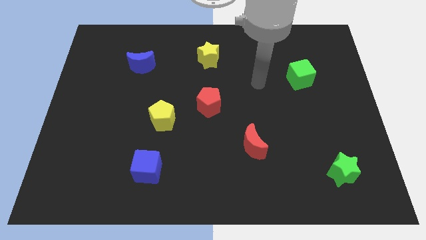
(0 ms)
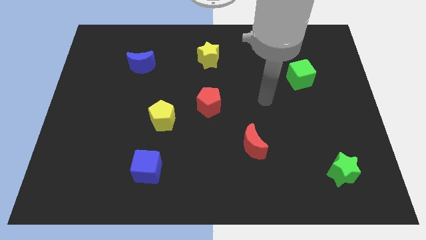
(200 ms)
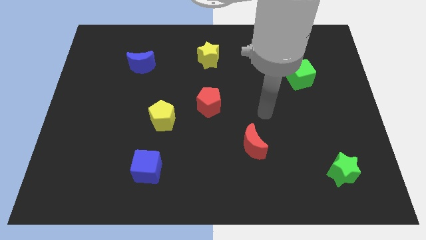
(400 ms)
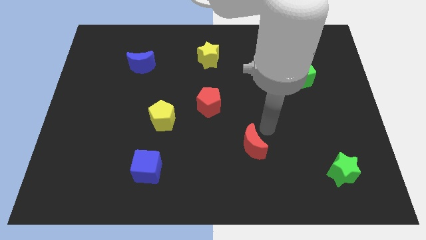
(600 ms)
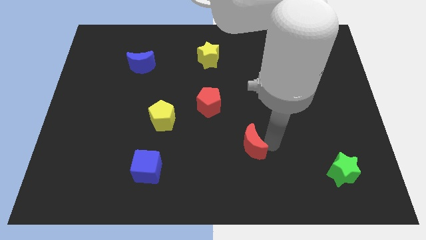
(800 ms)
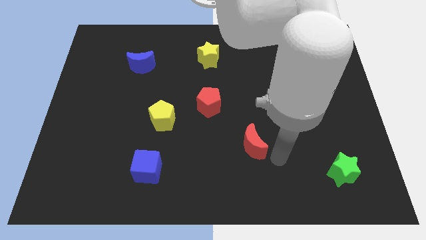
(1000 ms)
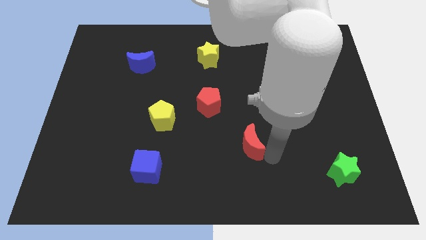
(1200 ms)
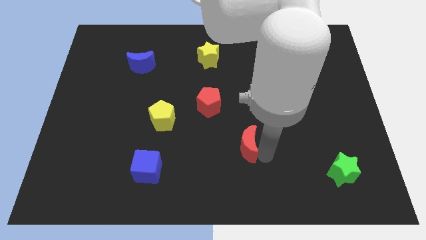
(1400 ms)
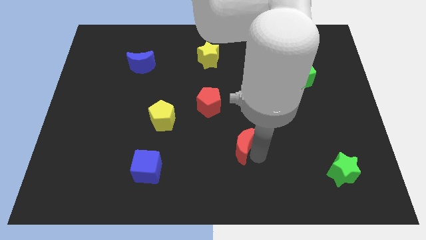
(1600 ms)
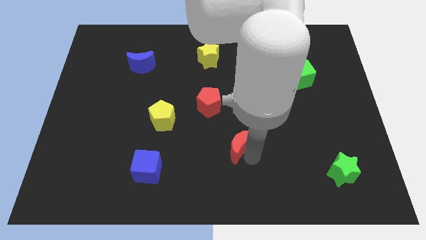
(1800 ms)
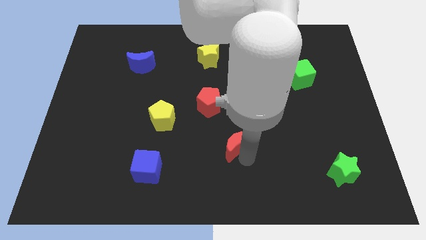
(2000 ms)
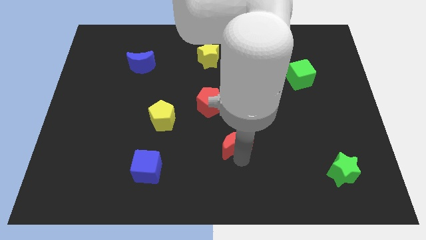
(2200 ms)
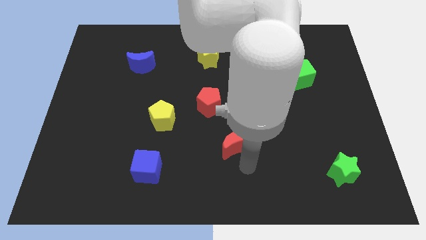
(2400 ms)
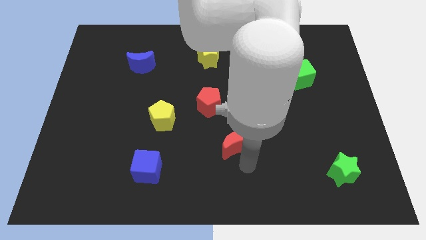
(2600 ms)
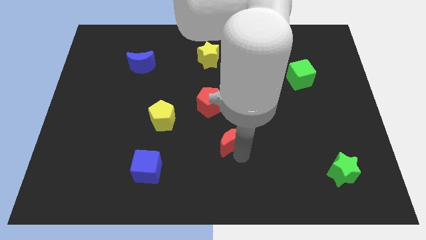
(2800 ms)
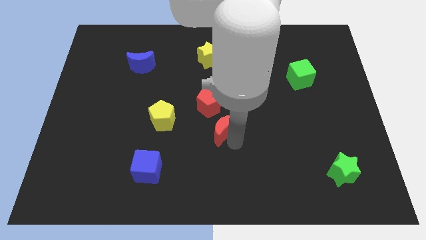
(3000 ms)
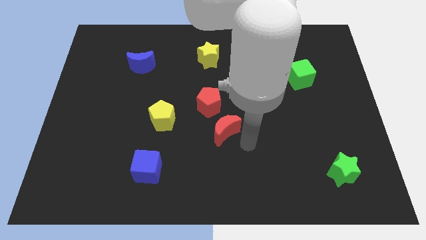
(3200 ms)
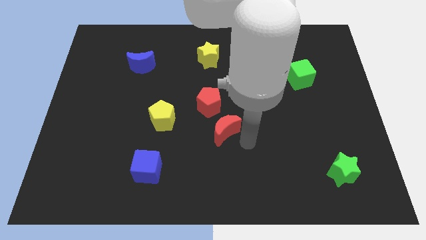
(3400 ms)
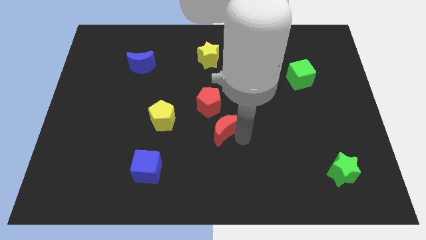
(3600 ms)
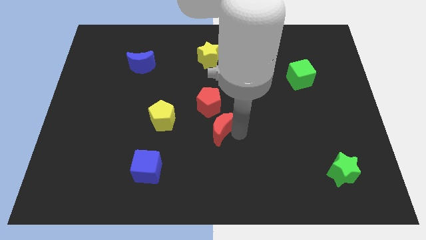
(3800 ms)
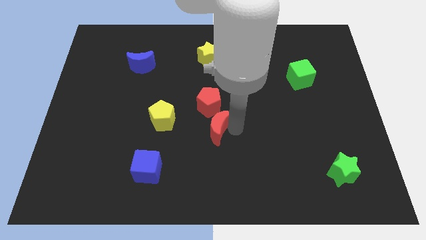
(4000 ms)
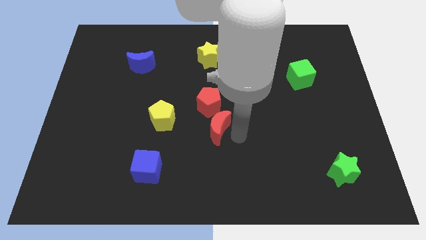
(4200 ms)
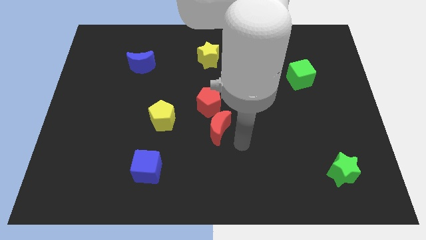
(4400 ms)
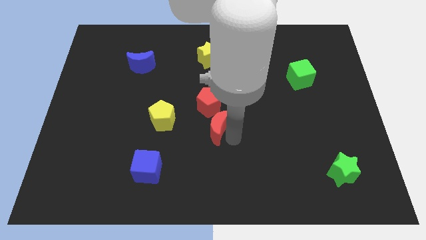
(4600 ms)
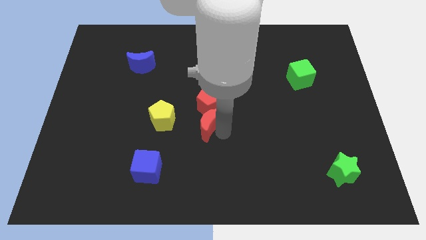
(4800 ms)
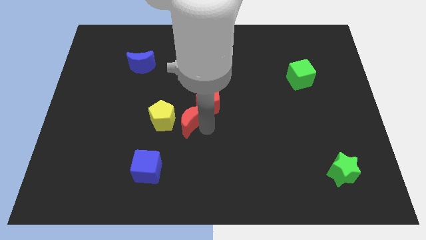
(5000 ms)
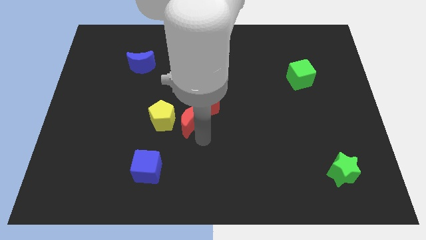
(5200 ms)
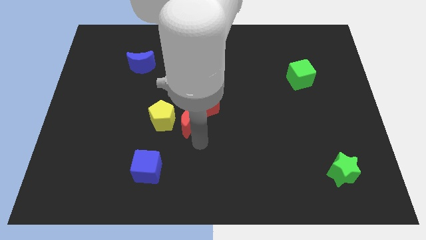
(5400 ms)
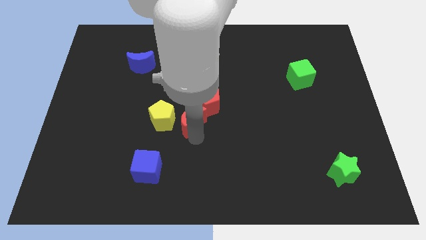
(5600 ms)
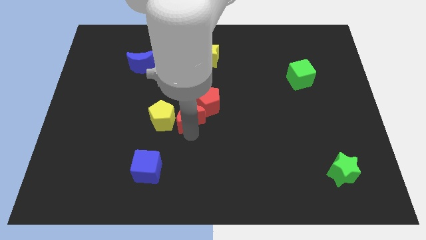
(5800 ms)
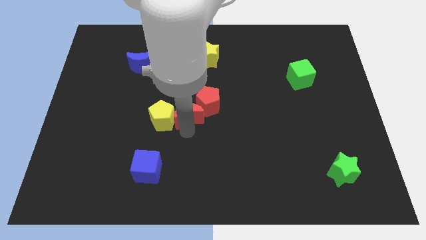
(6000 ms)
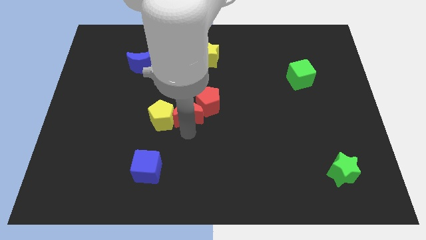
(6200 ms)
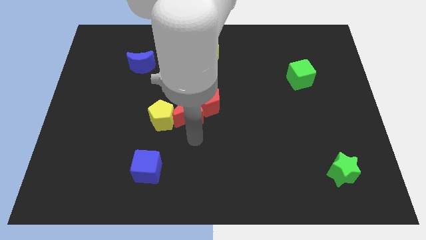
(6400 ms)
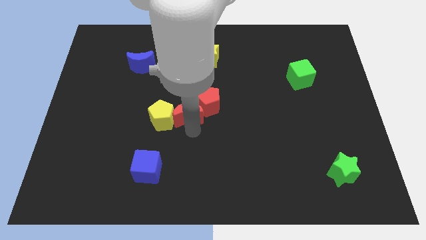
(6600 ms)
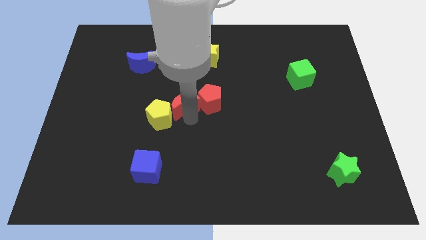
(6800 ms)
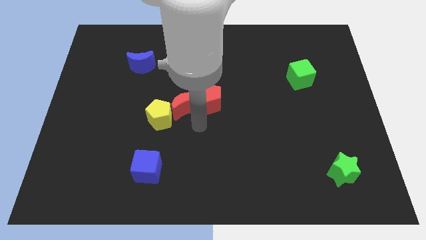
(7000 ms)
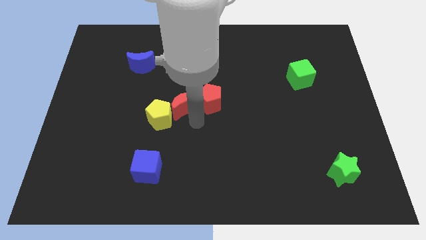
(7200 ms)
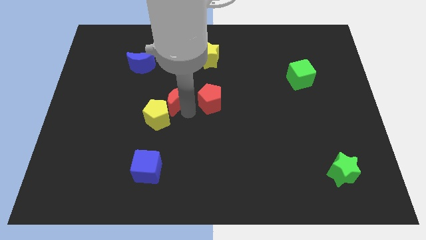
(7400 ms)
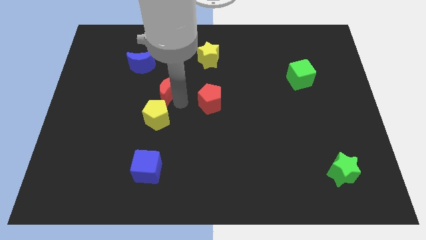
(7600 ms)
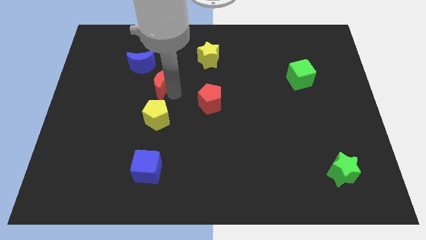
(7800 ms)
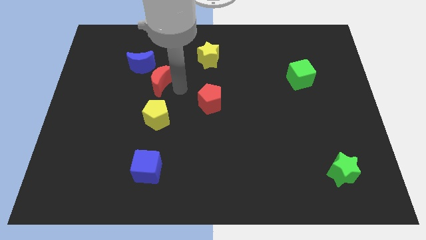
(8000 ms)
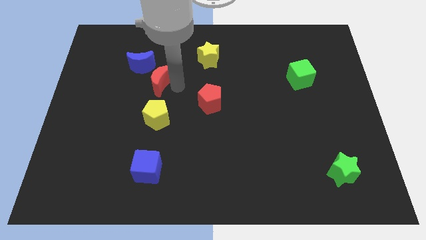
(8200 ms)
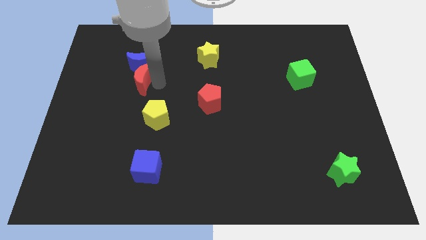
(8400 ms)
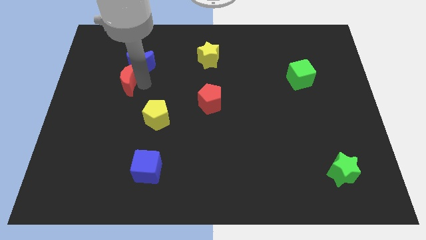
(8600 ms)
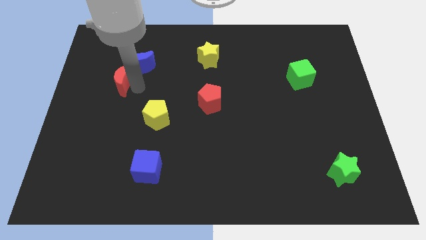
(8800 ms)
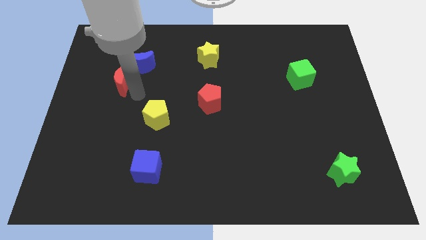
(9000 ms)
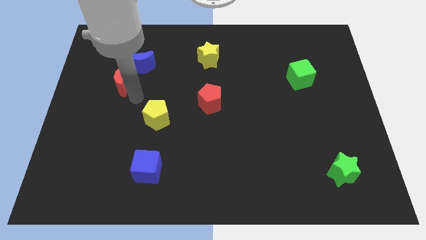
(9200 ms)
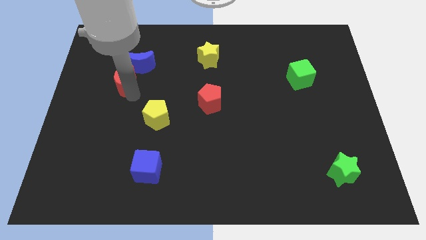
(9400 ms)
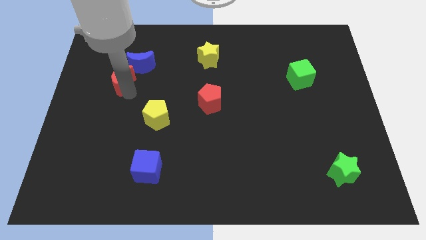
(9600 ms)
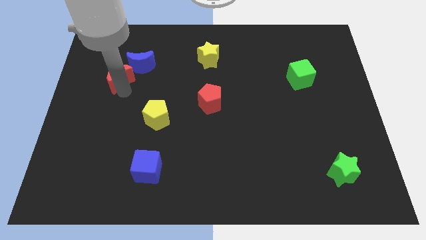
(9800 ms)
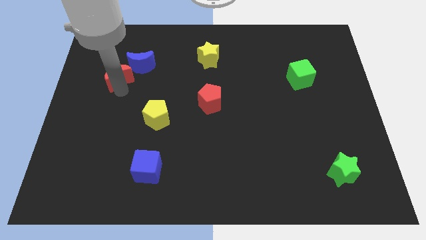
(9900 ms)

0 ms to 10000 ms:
push the red moon just left of the blue moon

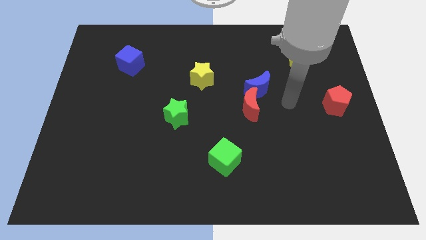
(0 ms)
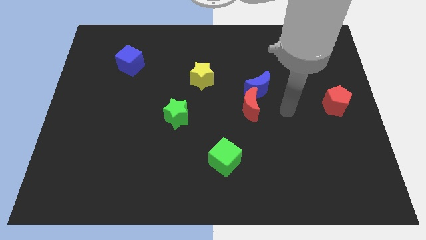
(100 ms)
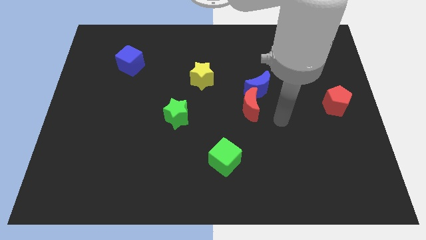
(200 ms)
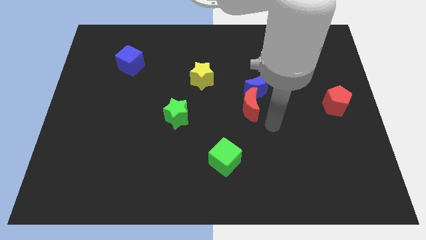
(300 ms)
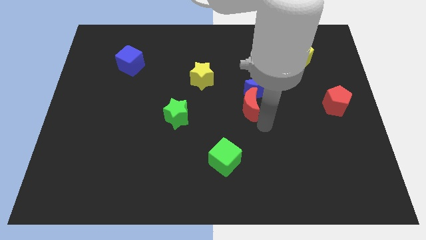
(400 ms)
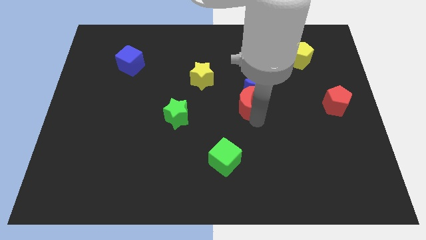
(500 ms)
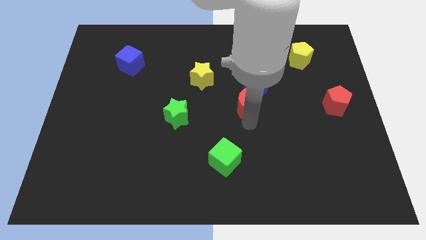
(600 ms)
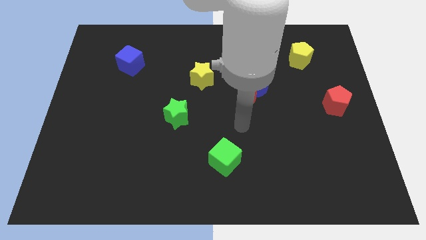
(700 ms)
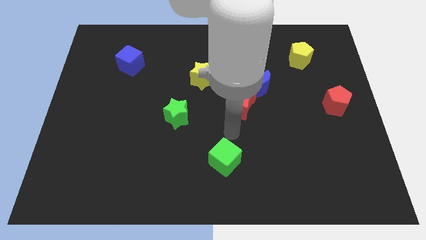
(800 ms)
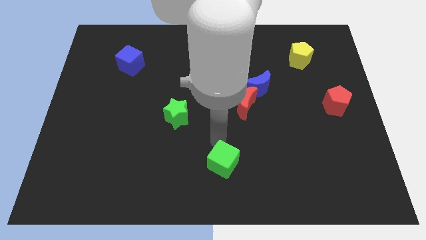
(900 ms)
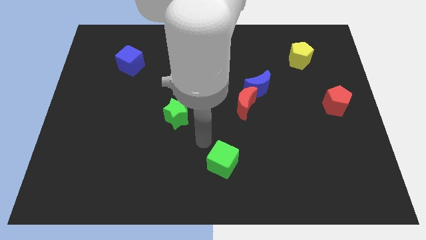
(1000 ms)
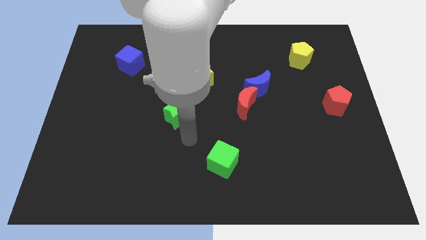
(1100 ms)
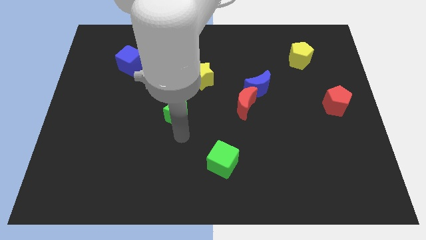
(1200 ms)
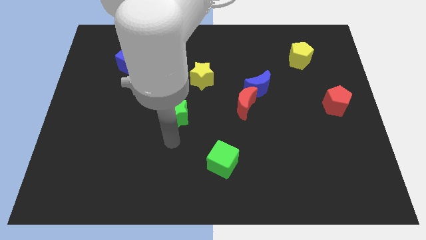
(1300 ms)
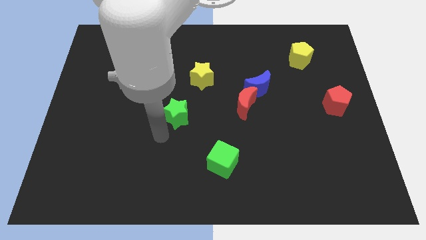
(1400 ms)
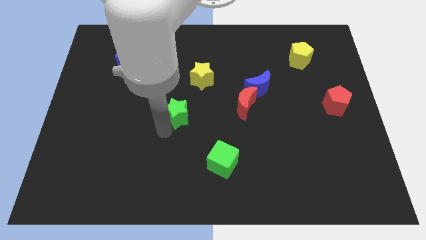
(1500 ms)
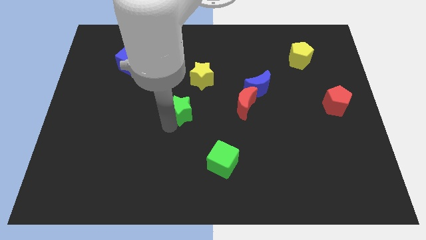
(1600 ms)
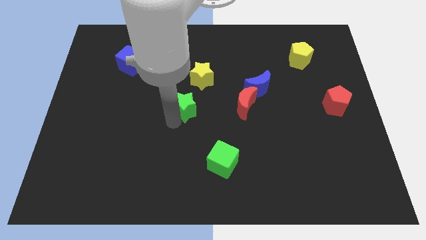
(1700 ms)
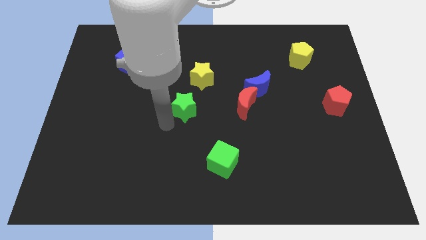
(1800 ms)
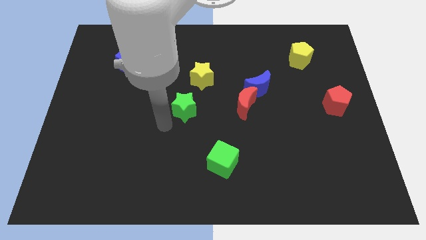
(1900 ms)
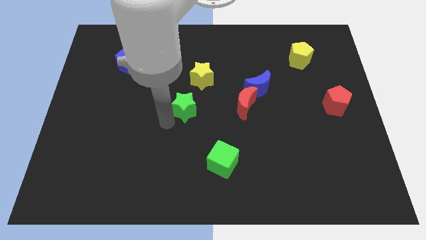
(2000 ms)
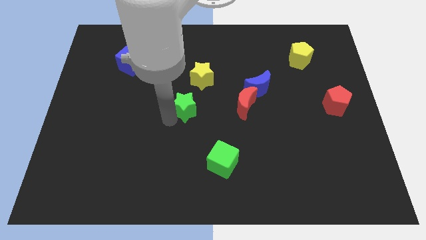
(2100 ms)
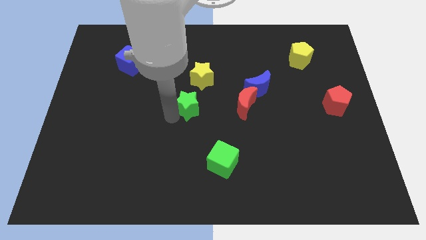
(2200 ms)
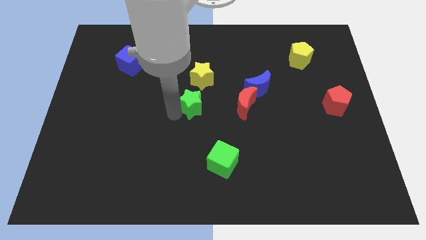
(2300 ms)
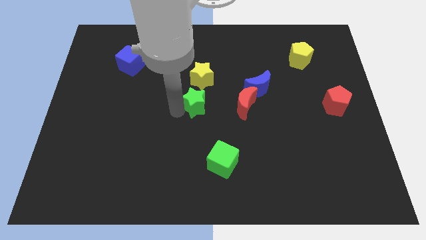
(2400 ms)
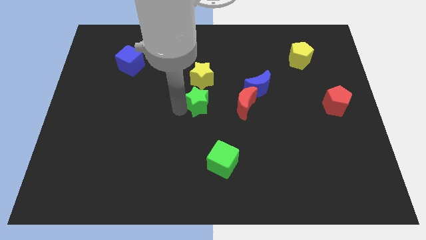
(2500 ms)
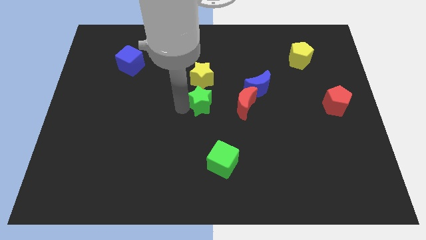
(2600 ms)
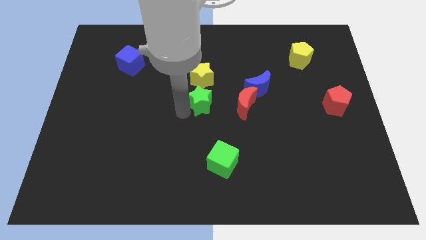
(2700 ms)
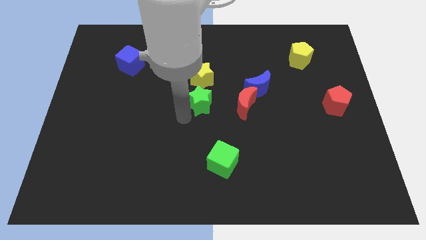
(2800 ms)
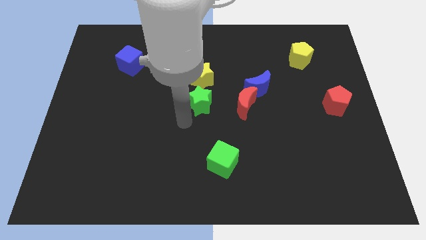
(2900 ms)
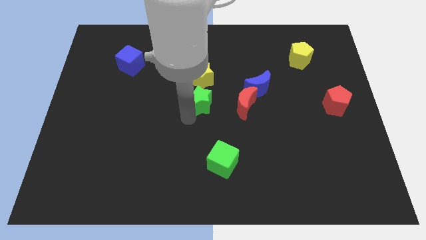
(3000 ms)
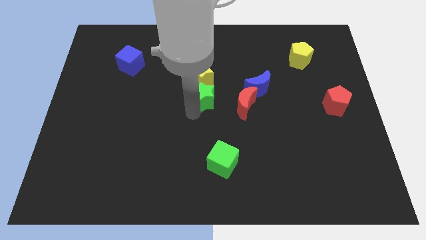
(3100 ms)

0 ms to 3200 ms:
move the green star left of the blue moon

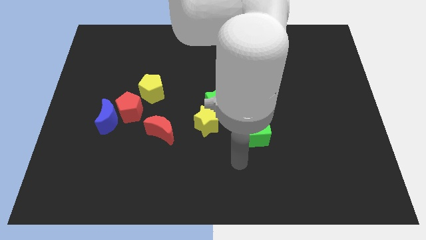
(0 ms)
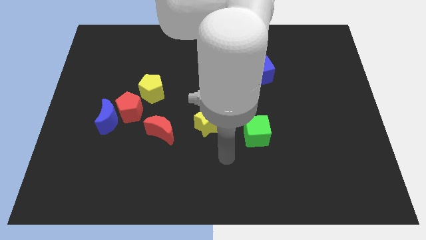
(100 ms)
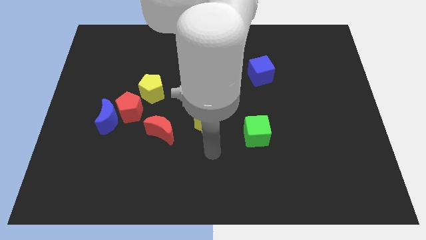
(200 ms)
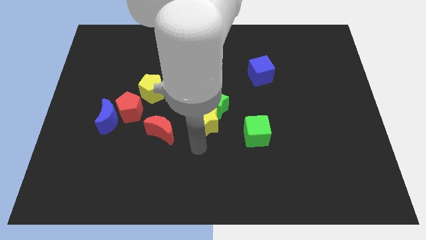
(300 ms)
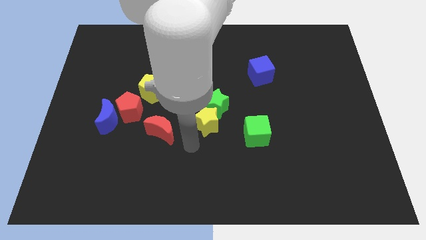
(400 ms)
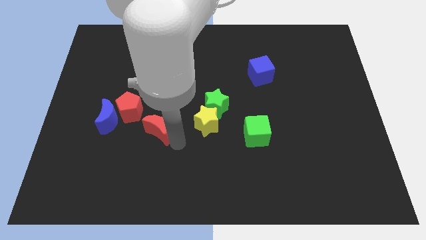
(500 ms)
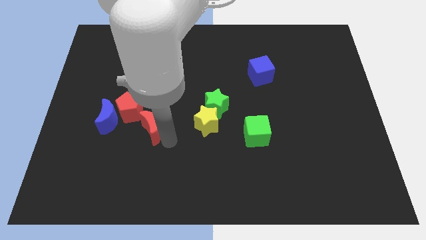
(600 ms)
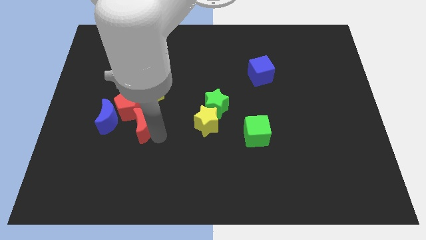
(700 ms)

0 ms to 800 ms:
push the red pentagon above the blue moon
